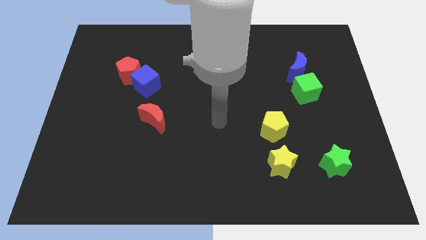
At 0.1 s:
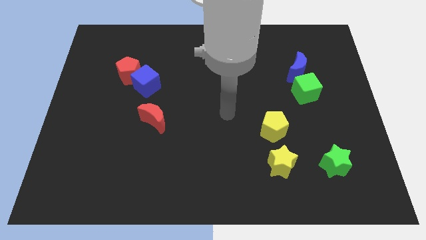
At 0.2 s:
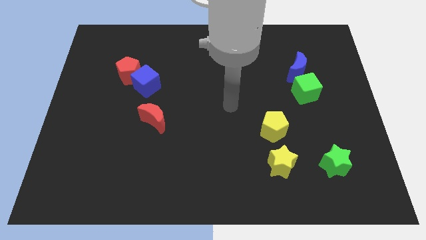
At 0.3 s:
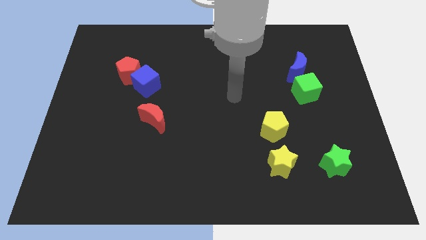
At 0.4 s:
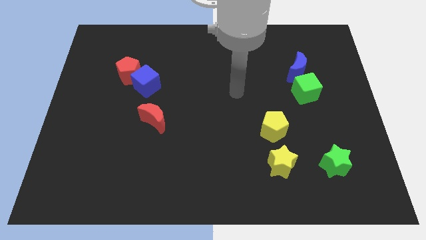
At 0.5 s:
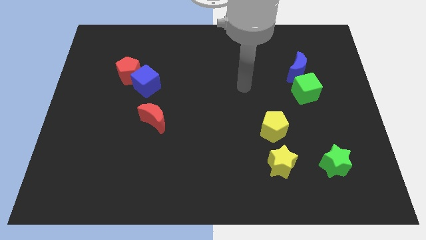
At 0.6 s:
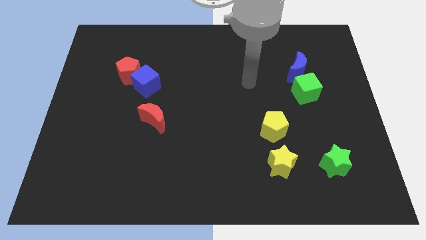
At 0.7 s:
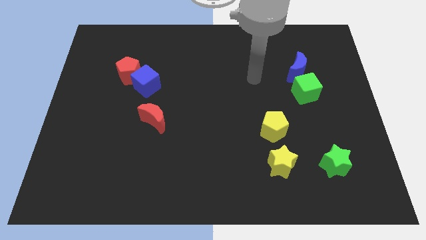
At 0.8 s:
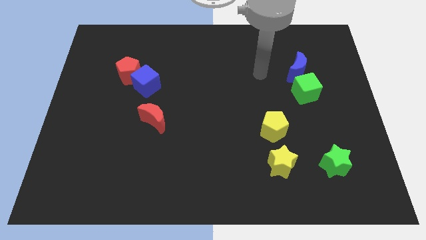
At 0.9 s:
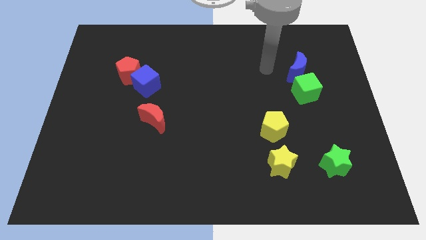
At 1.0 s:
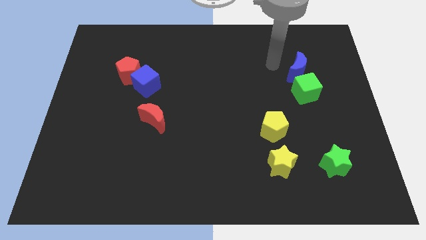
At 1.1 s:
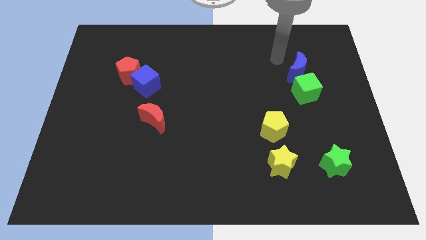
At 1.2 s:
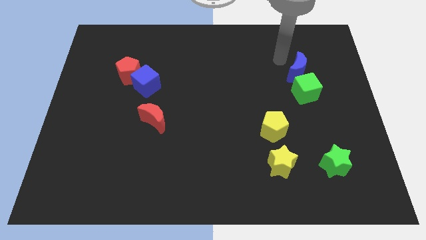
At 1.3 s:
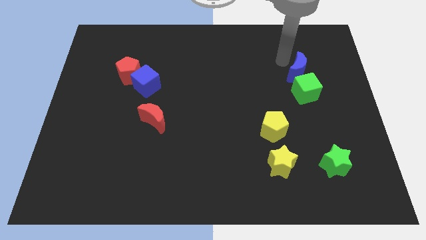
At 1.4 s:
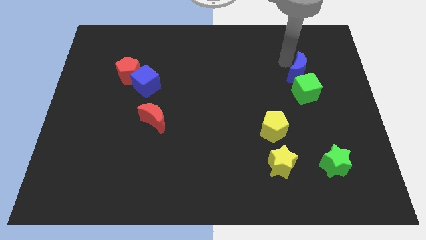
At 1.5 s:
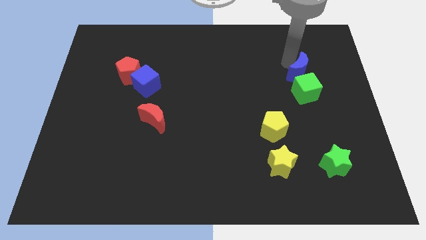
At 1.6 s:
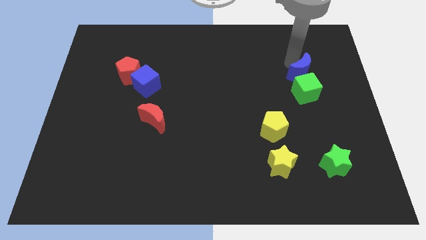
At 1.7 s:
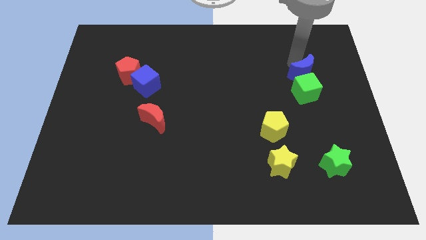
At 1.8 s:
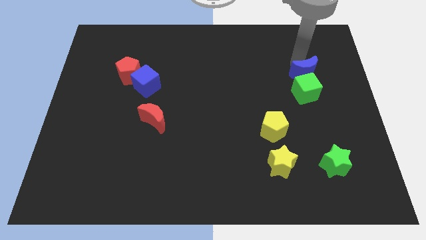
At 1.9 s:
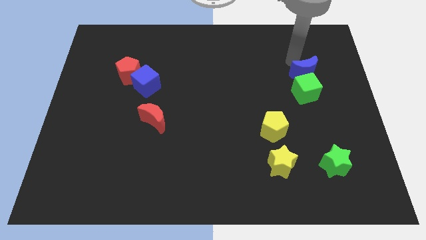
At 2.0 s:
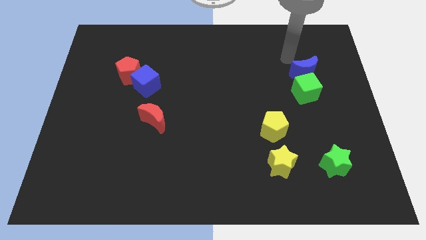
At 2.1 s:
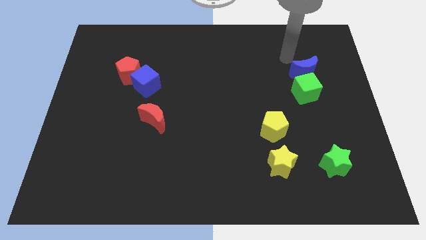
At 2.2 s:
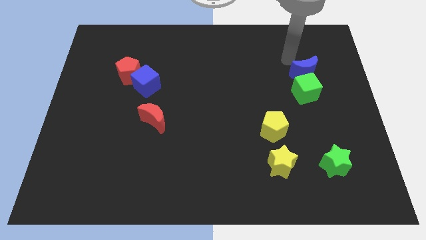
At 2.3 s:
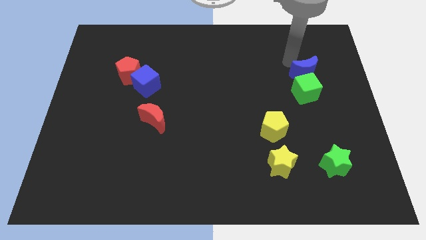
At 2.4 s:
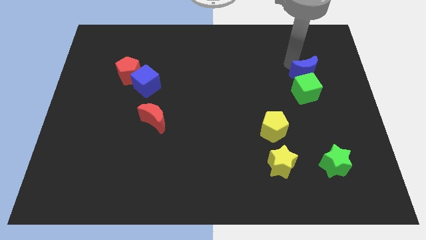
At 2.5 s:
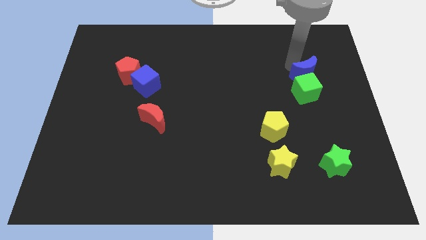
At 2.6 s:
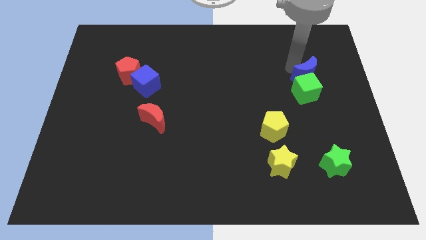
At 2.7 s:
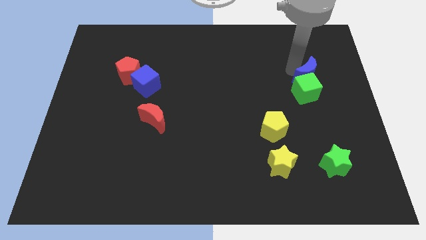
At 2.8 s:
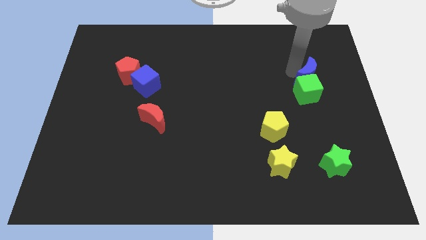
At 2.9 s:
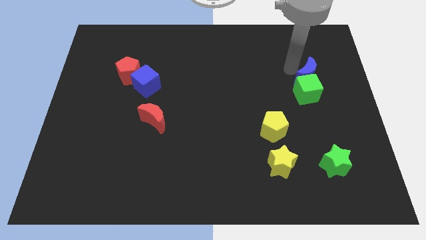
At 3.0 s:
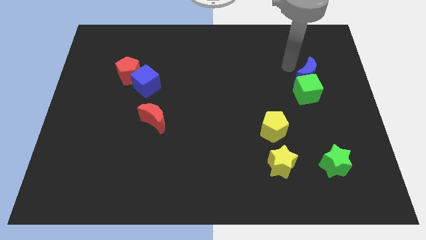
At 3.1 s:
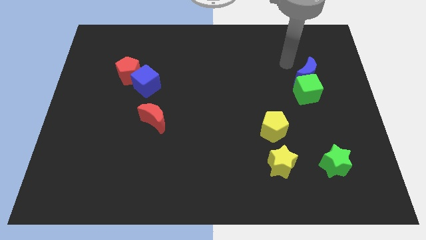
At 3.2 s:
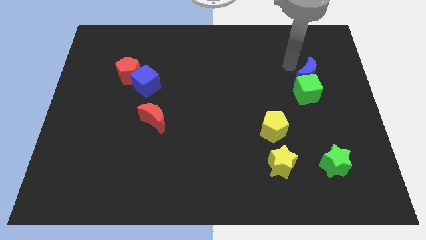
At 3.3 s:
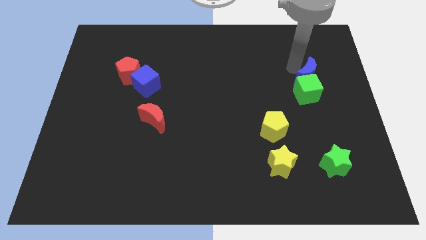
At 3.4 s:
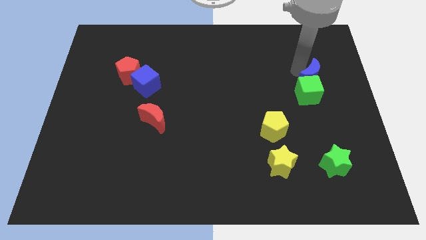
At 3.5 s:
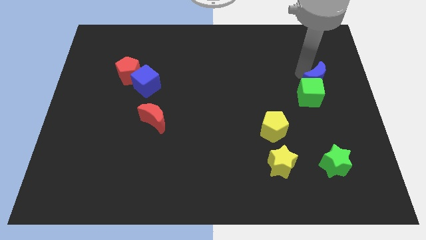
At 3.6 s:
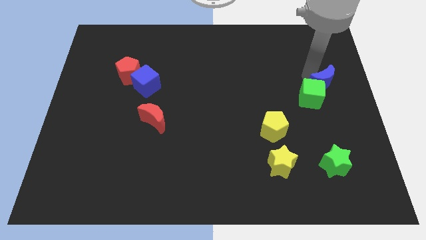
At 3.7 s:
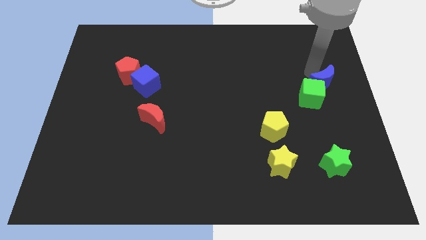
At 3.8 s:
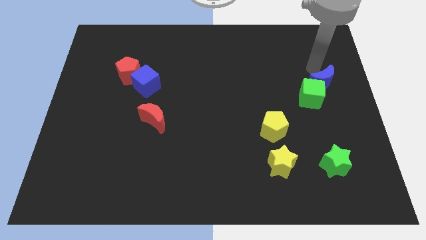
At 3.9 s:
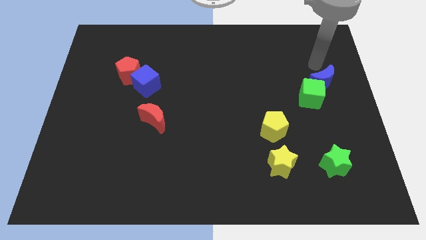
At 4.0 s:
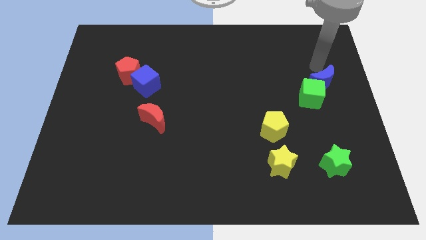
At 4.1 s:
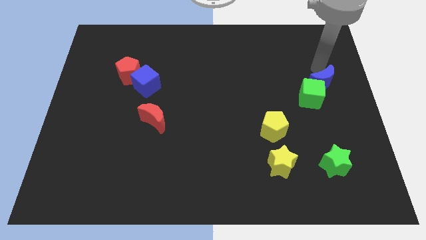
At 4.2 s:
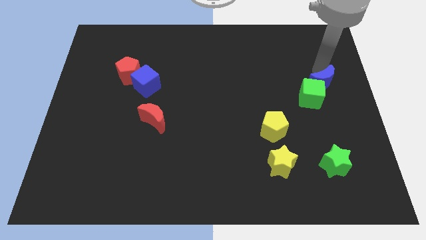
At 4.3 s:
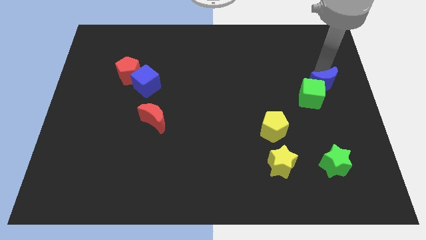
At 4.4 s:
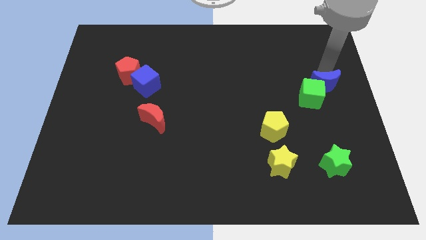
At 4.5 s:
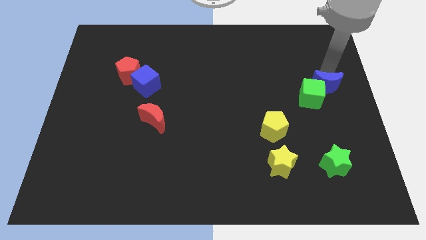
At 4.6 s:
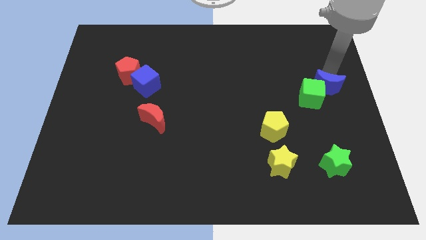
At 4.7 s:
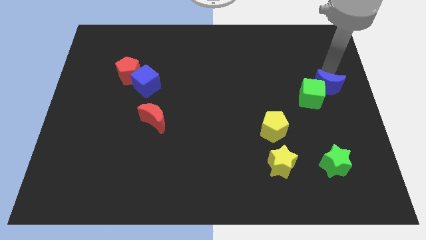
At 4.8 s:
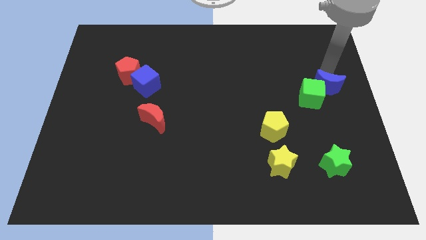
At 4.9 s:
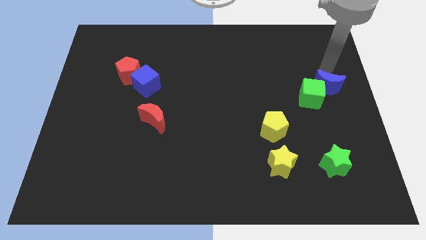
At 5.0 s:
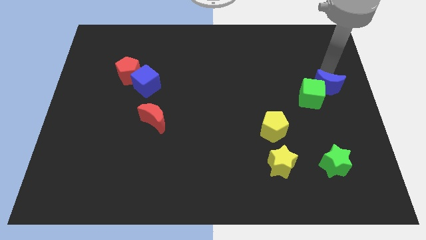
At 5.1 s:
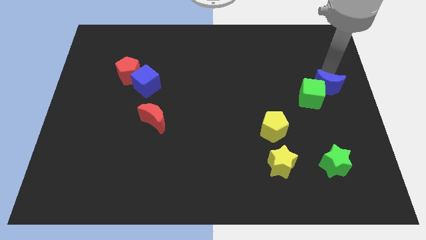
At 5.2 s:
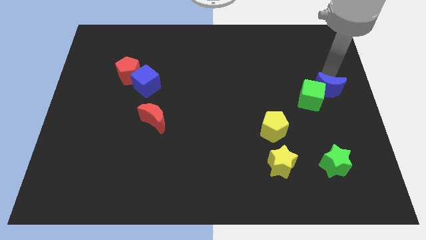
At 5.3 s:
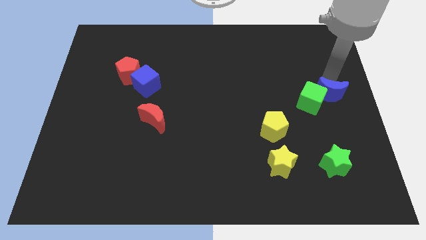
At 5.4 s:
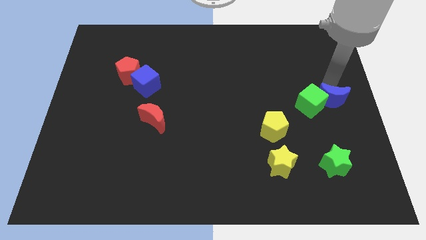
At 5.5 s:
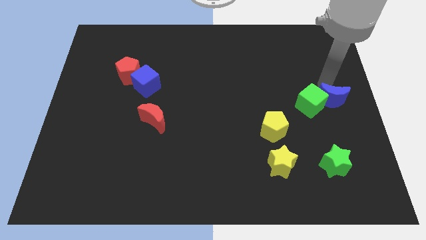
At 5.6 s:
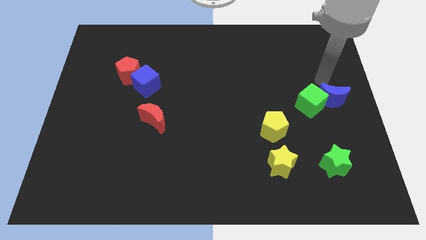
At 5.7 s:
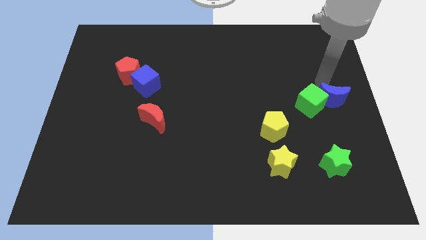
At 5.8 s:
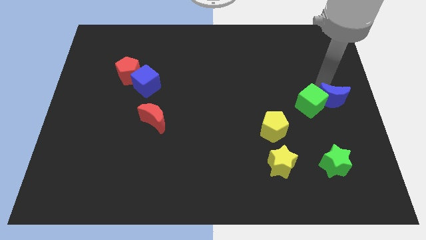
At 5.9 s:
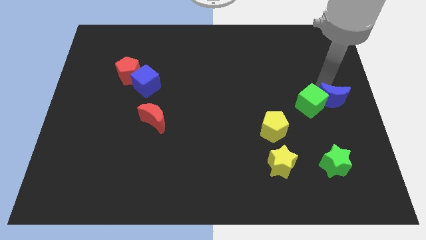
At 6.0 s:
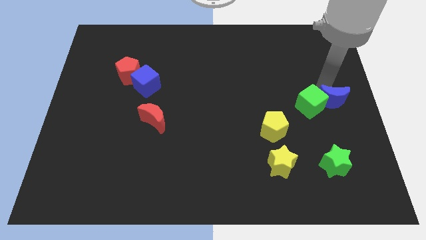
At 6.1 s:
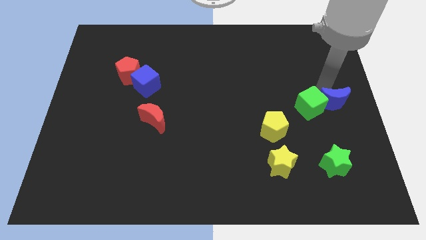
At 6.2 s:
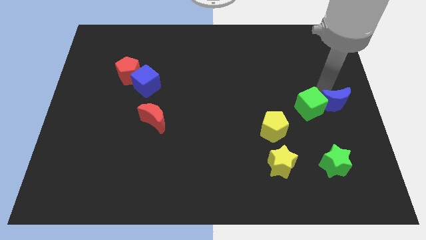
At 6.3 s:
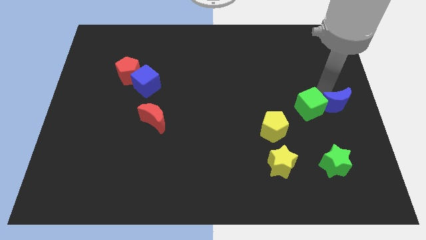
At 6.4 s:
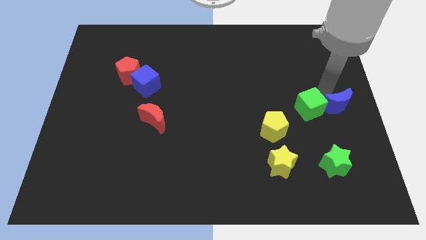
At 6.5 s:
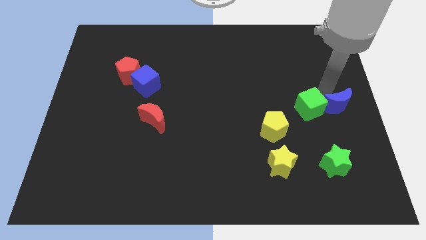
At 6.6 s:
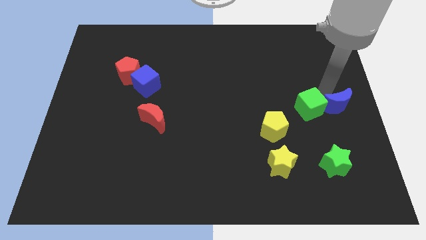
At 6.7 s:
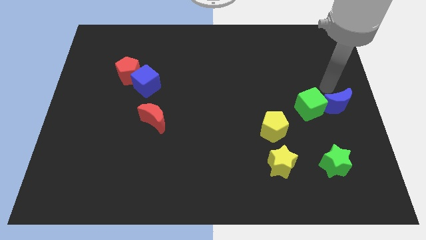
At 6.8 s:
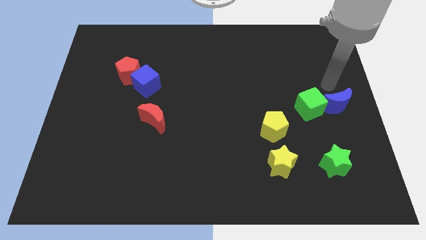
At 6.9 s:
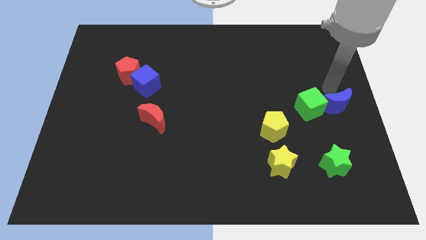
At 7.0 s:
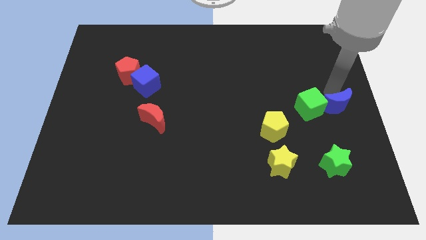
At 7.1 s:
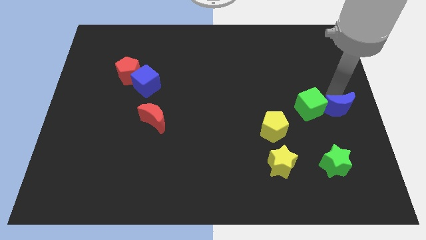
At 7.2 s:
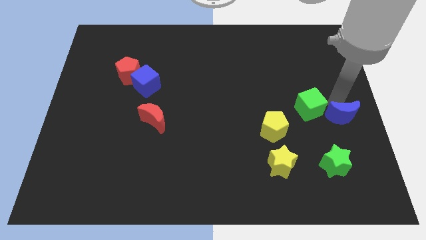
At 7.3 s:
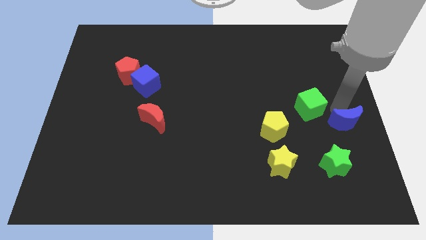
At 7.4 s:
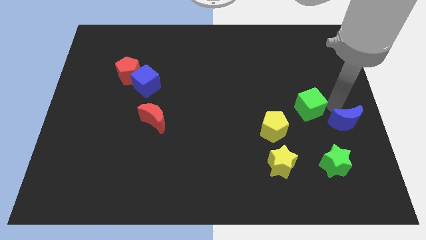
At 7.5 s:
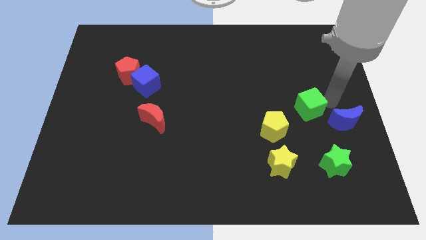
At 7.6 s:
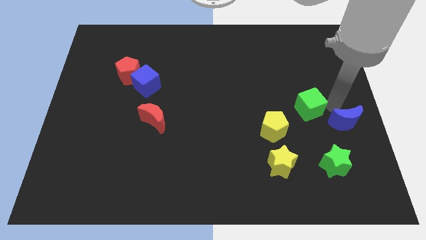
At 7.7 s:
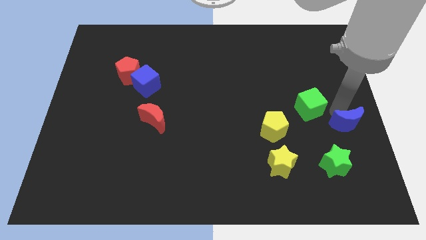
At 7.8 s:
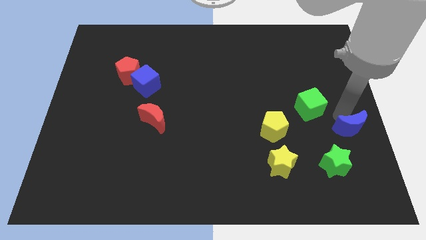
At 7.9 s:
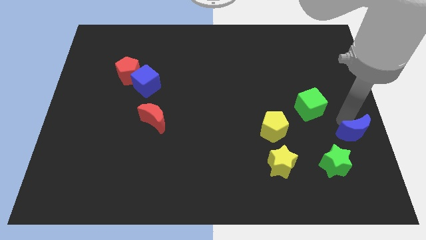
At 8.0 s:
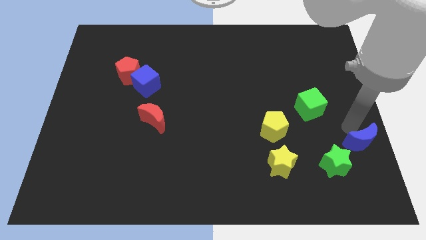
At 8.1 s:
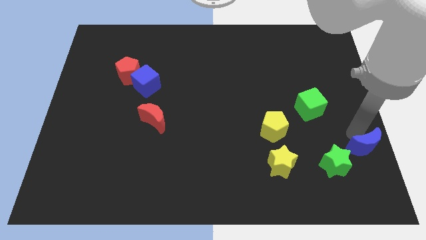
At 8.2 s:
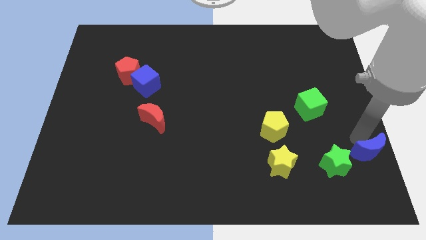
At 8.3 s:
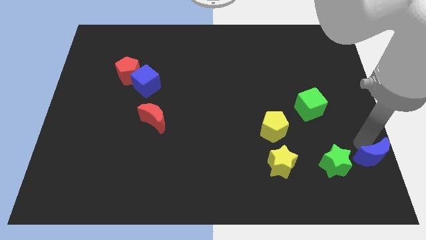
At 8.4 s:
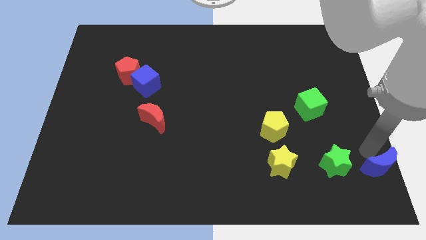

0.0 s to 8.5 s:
put the blue moon to the bottom right of the board
